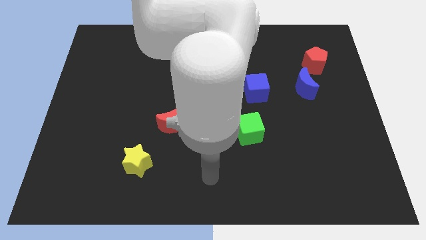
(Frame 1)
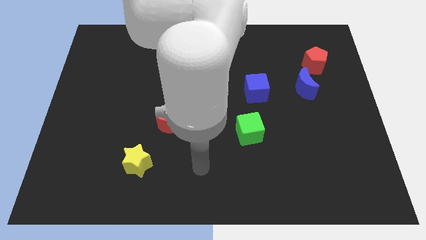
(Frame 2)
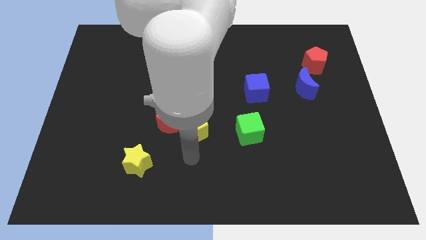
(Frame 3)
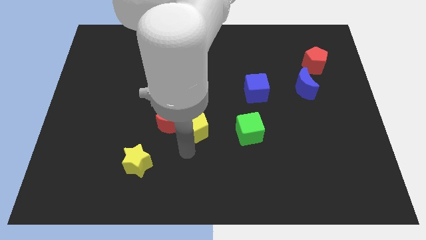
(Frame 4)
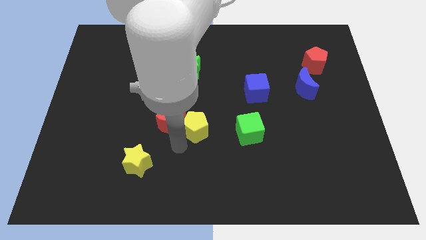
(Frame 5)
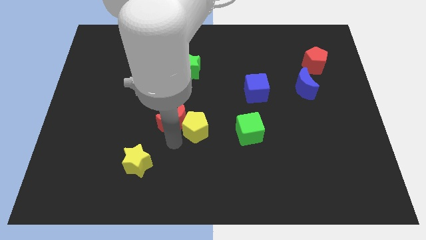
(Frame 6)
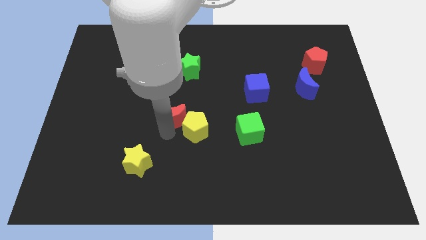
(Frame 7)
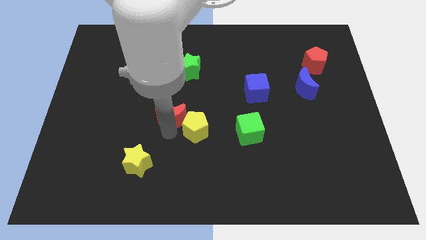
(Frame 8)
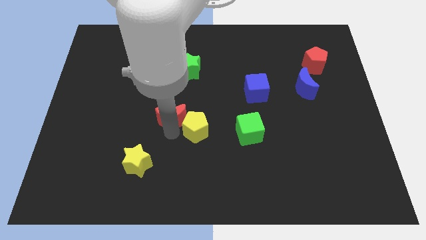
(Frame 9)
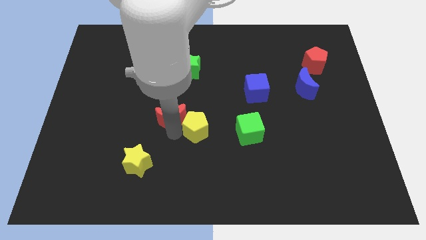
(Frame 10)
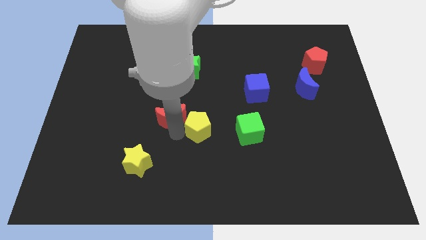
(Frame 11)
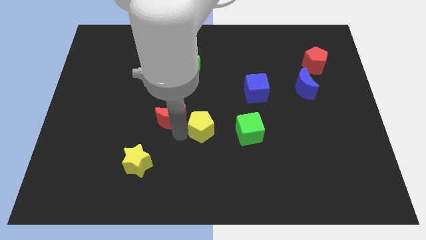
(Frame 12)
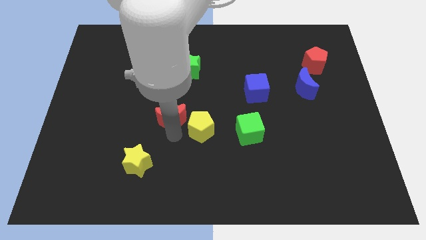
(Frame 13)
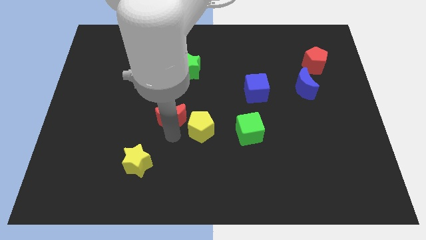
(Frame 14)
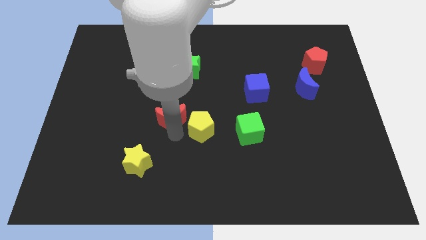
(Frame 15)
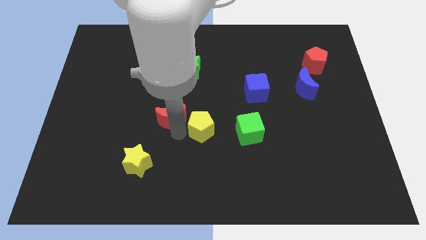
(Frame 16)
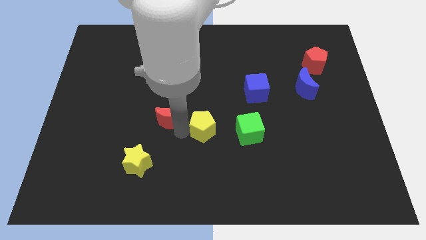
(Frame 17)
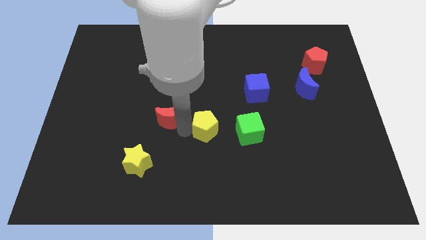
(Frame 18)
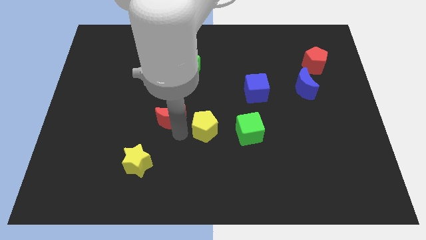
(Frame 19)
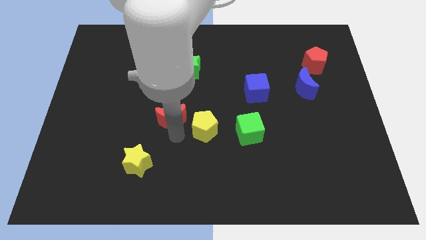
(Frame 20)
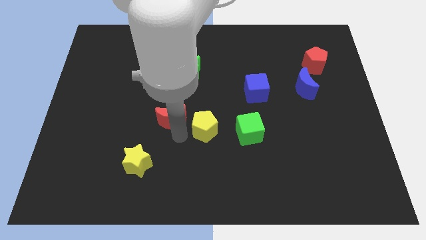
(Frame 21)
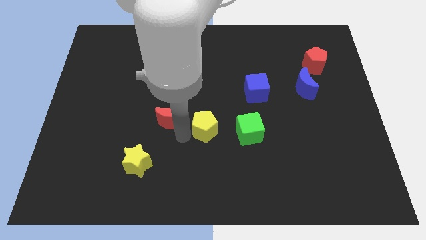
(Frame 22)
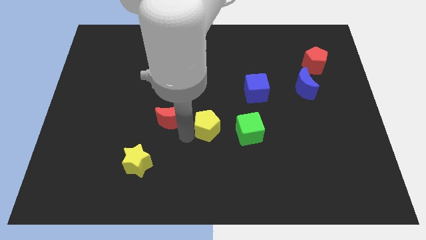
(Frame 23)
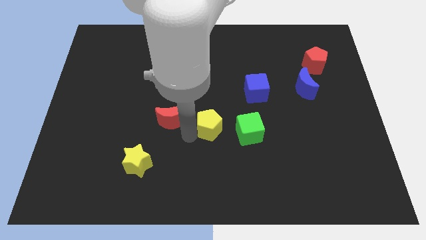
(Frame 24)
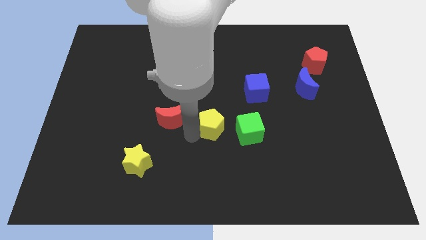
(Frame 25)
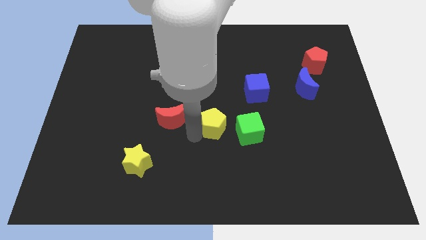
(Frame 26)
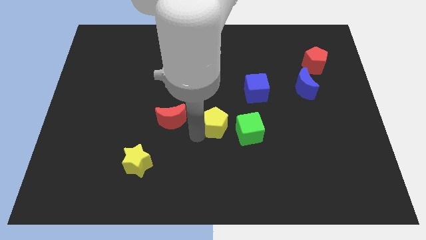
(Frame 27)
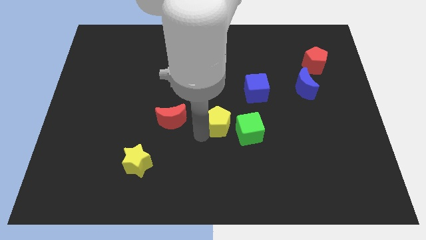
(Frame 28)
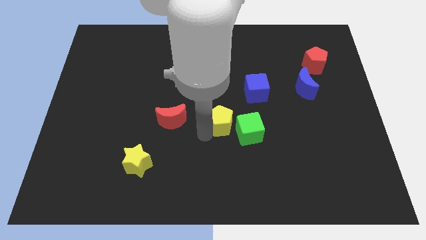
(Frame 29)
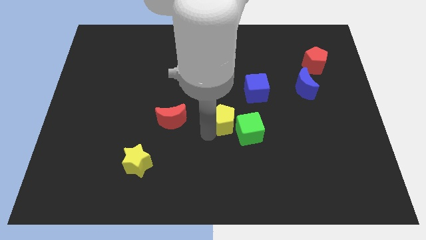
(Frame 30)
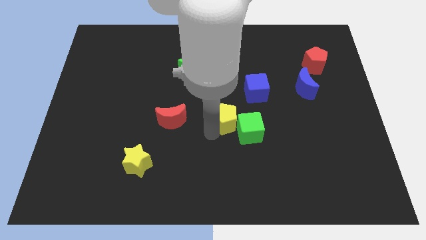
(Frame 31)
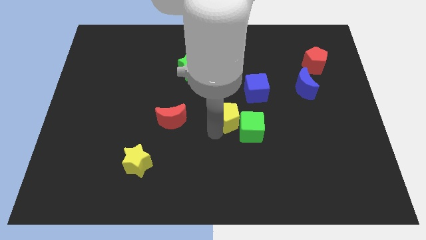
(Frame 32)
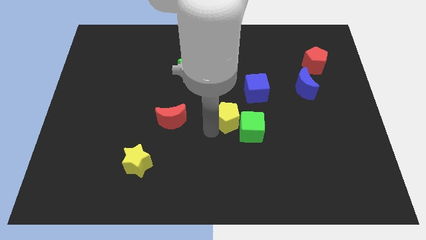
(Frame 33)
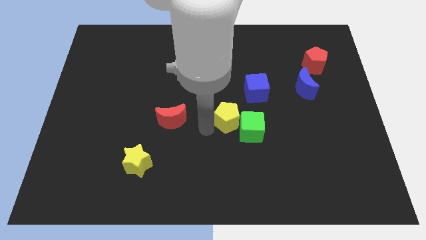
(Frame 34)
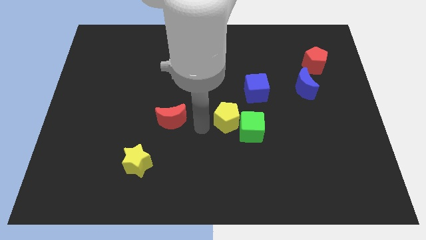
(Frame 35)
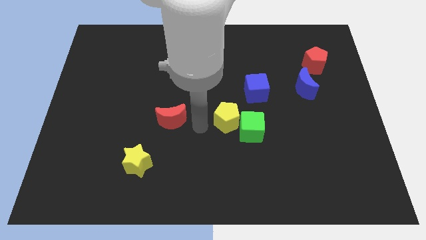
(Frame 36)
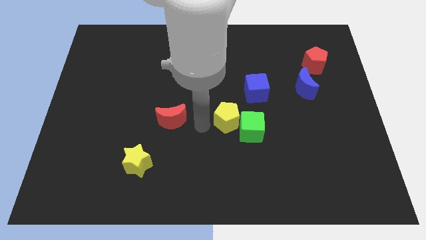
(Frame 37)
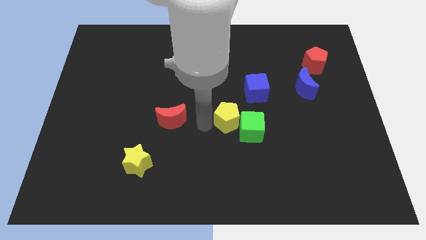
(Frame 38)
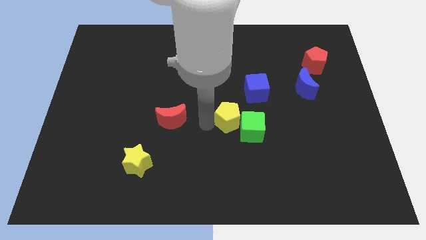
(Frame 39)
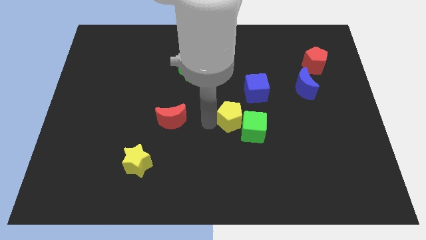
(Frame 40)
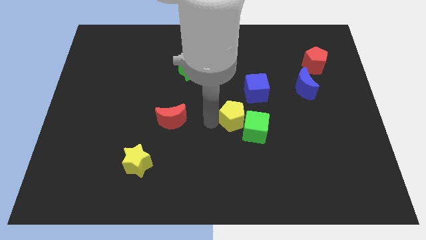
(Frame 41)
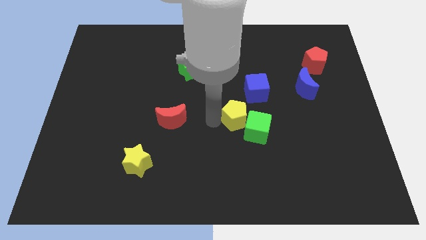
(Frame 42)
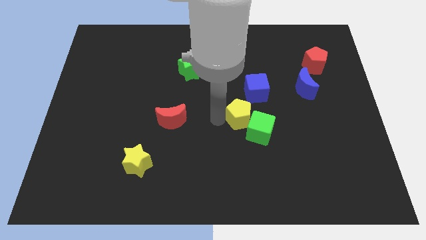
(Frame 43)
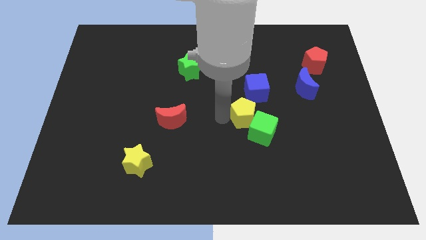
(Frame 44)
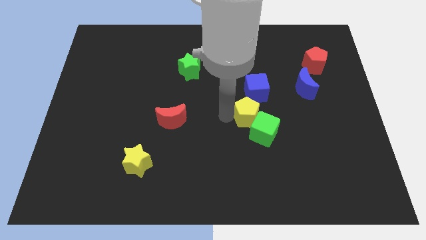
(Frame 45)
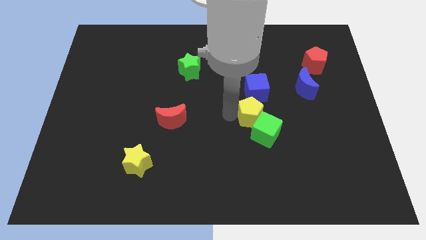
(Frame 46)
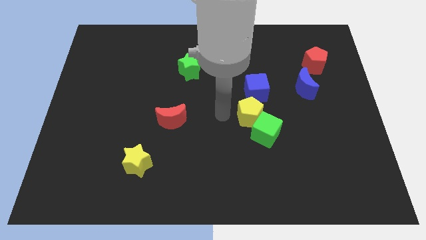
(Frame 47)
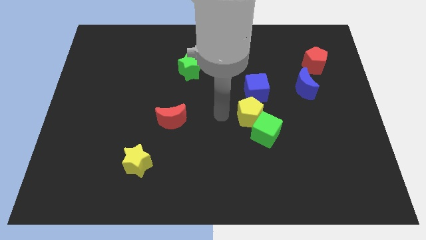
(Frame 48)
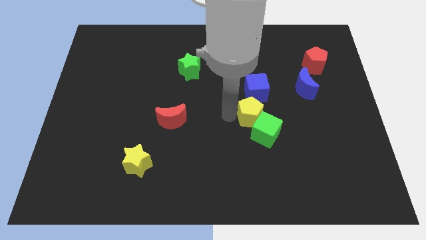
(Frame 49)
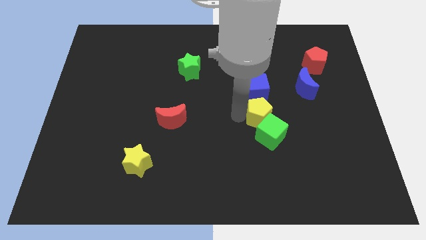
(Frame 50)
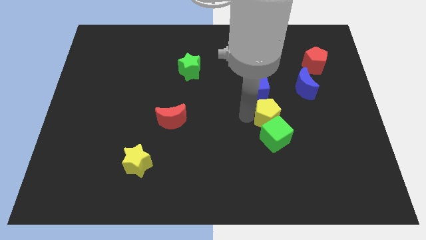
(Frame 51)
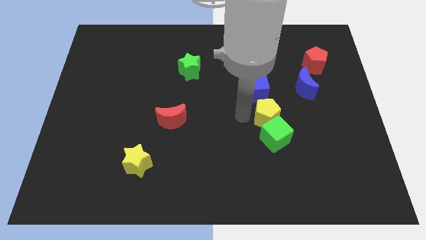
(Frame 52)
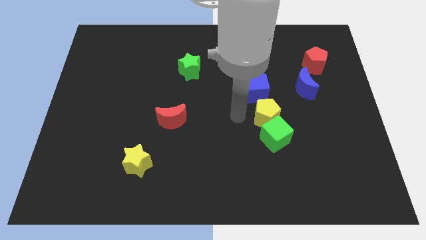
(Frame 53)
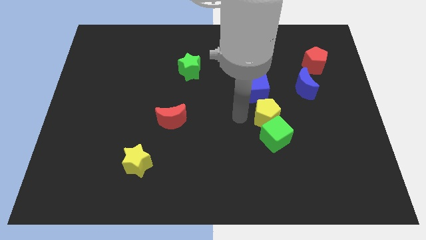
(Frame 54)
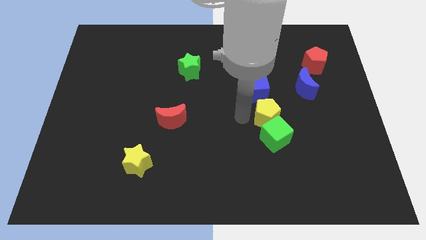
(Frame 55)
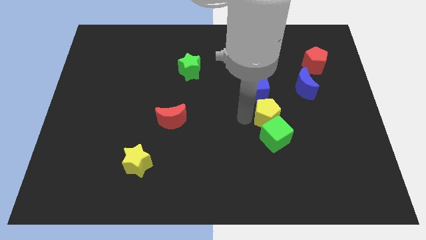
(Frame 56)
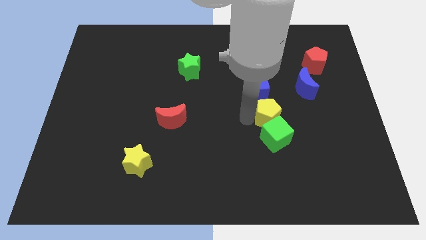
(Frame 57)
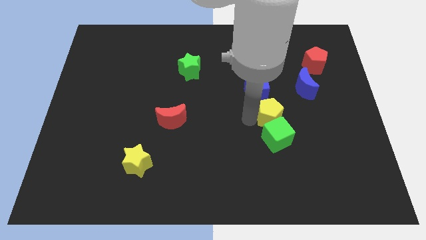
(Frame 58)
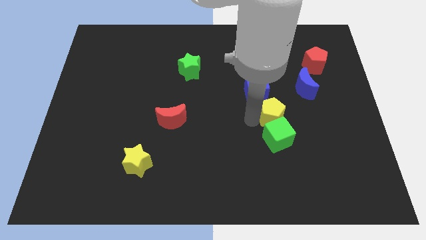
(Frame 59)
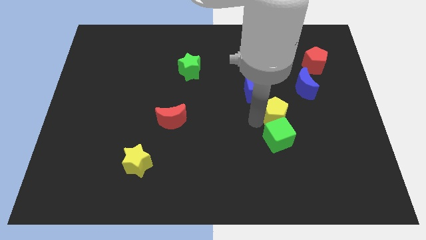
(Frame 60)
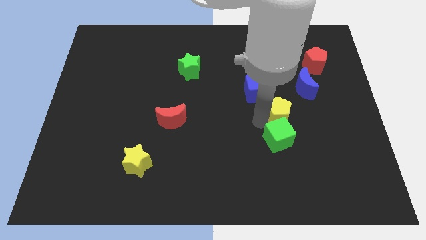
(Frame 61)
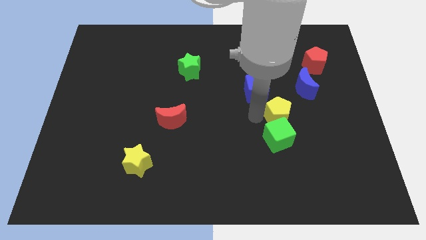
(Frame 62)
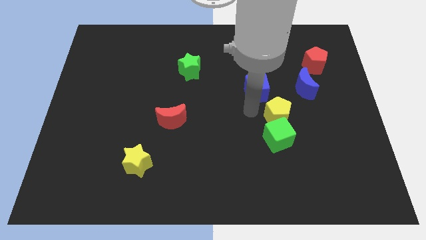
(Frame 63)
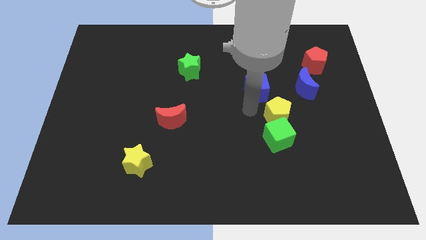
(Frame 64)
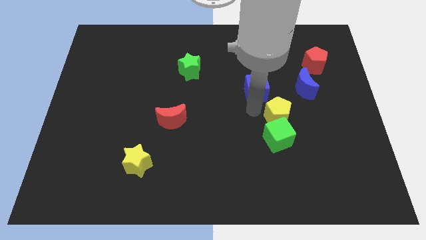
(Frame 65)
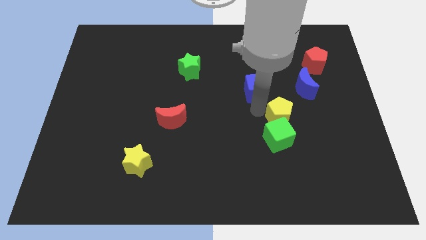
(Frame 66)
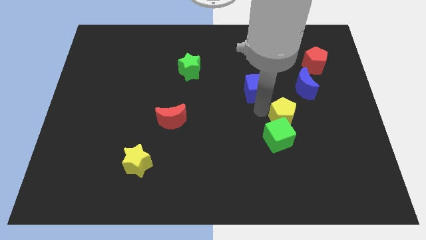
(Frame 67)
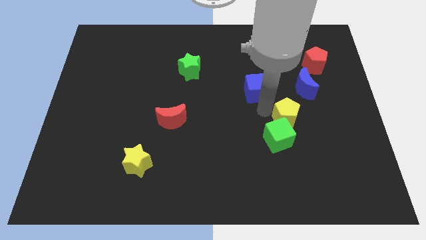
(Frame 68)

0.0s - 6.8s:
move the yellow pentagon to the right

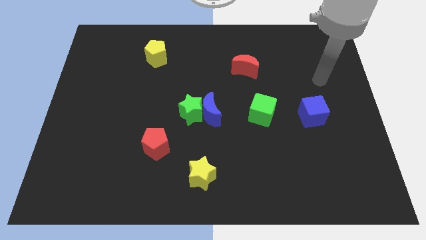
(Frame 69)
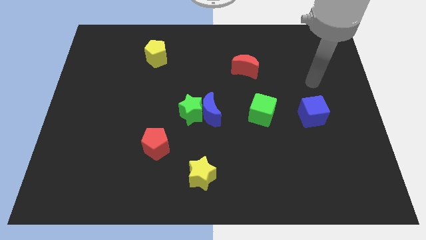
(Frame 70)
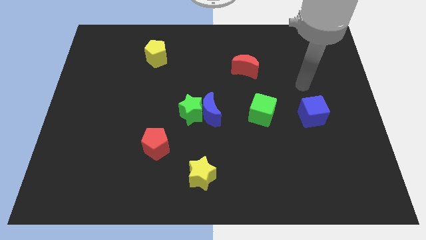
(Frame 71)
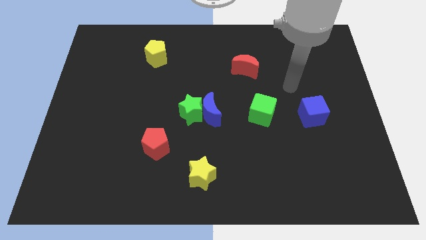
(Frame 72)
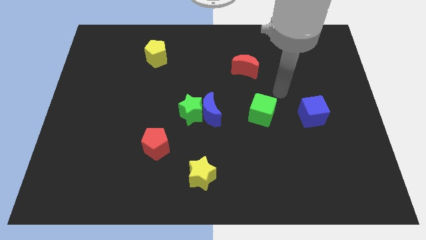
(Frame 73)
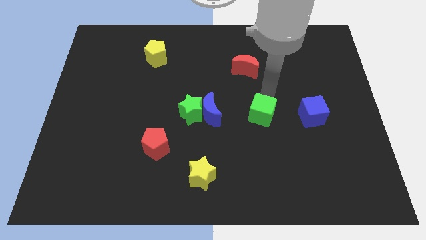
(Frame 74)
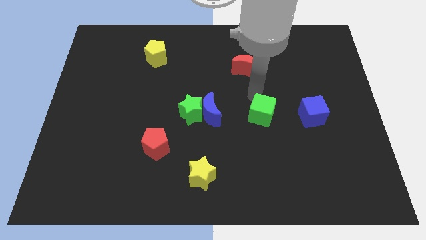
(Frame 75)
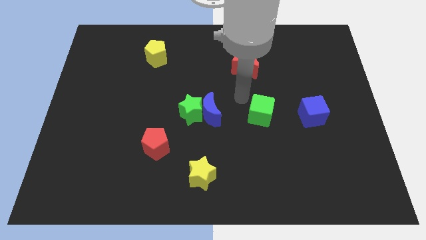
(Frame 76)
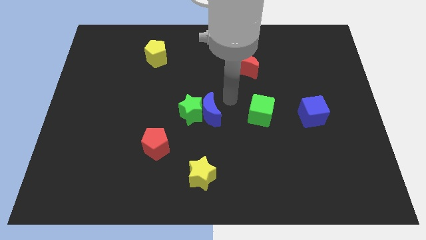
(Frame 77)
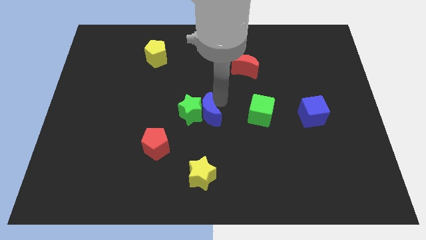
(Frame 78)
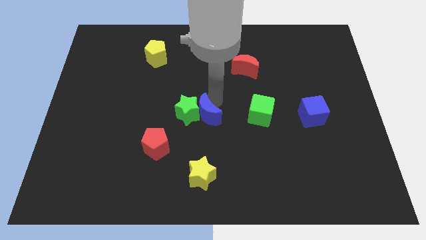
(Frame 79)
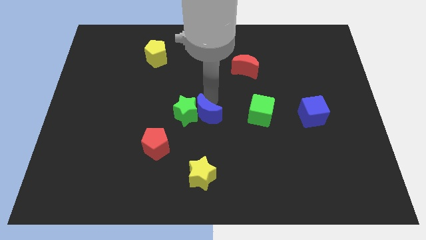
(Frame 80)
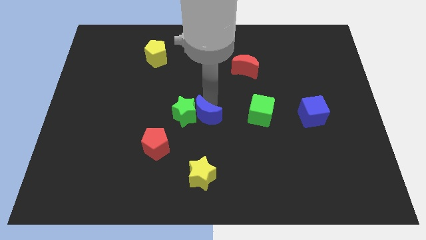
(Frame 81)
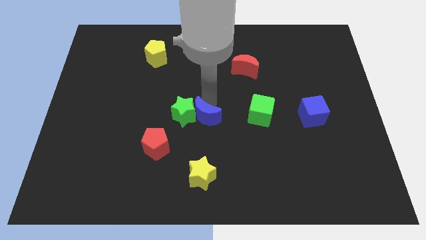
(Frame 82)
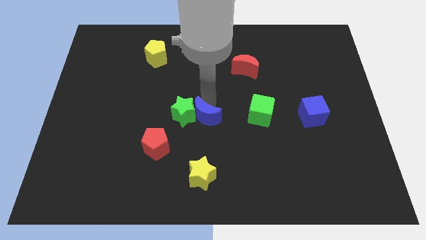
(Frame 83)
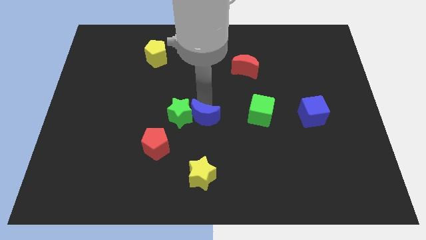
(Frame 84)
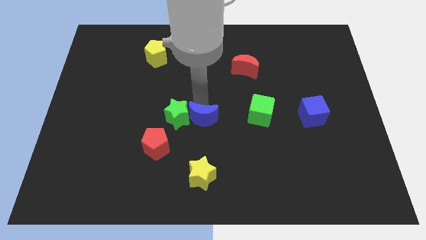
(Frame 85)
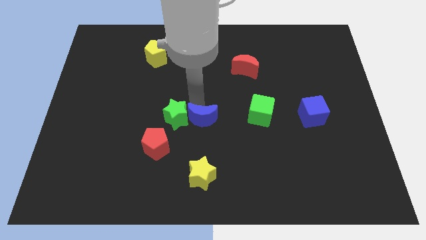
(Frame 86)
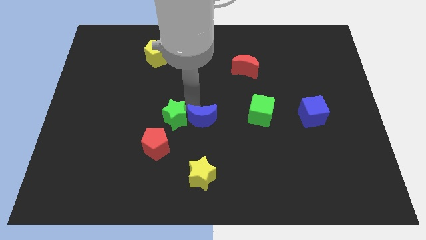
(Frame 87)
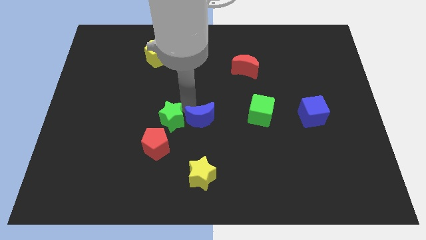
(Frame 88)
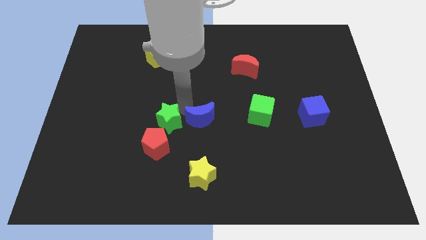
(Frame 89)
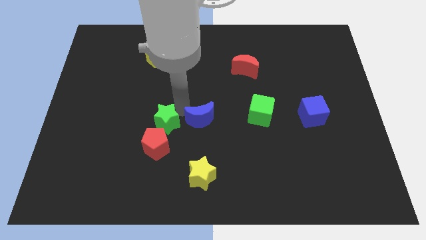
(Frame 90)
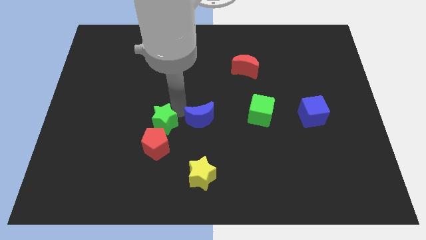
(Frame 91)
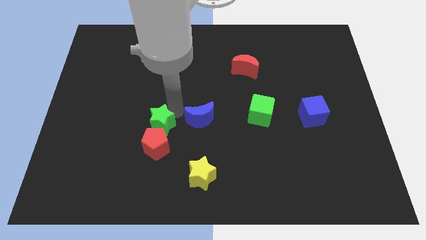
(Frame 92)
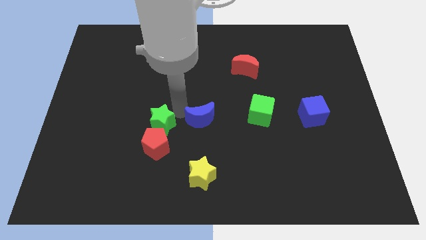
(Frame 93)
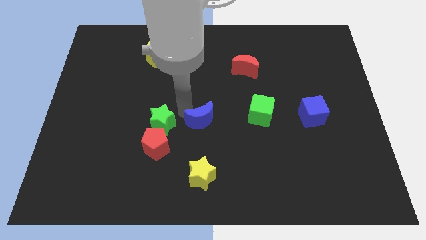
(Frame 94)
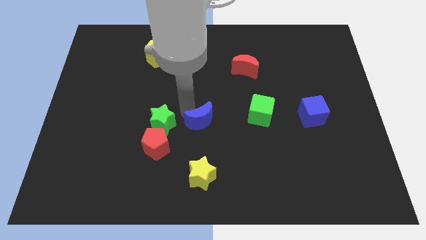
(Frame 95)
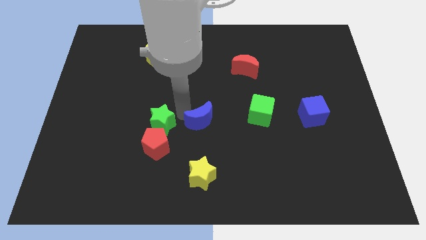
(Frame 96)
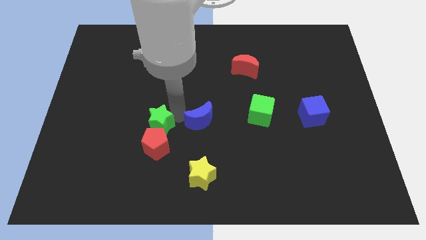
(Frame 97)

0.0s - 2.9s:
slightly move the green star diagonally down and to the left
